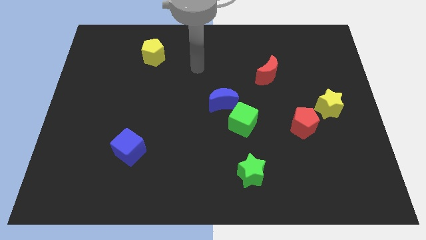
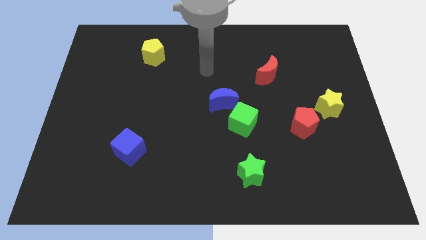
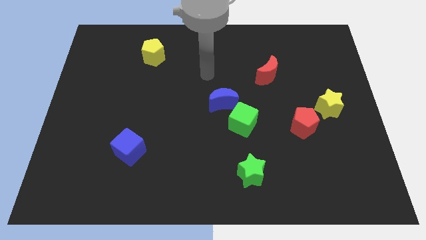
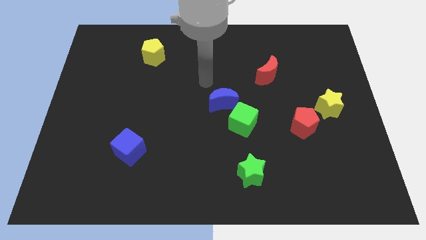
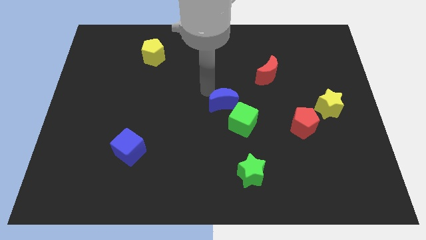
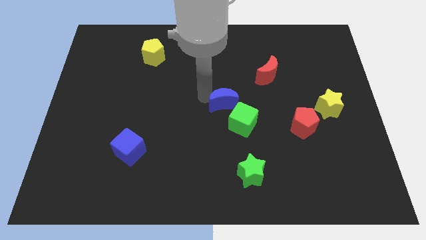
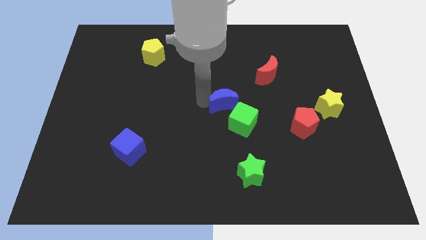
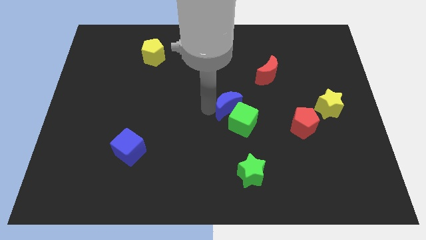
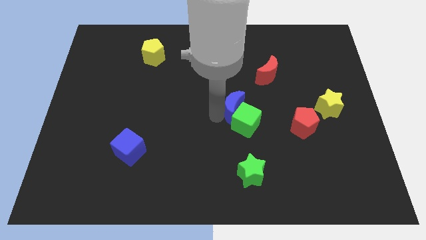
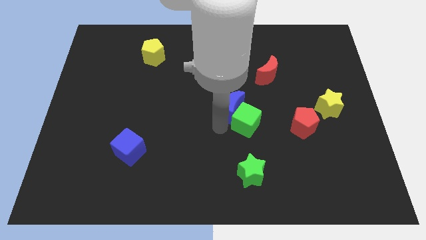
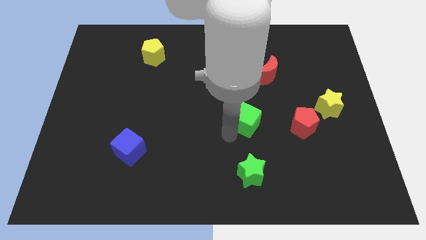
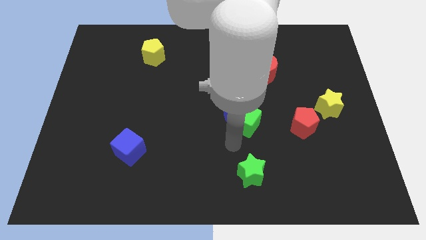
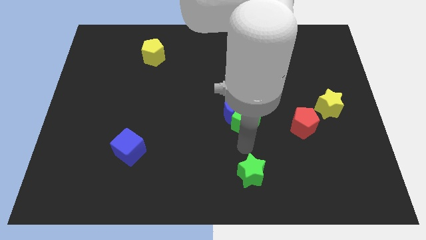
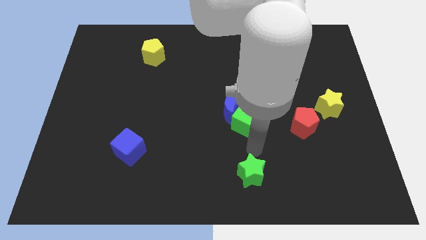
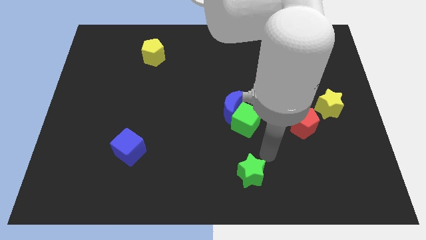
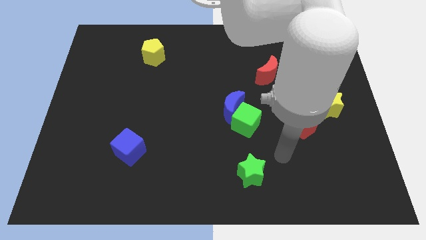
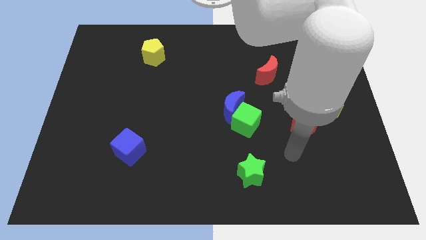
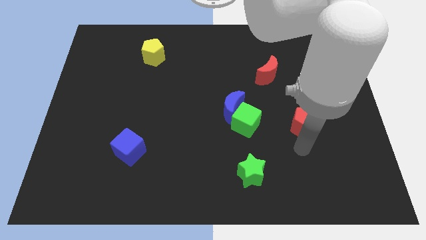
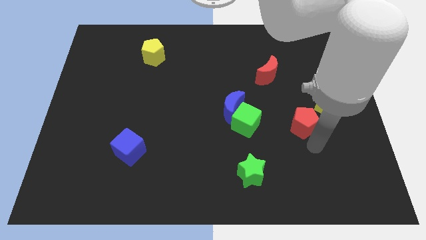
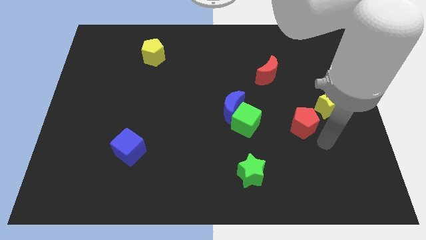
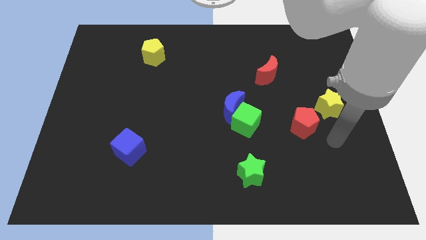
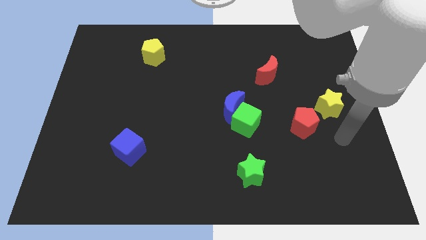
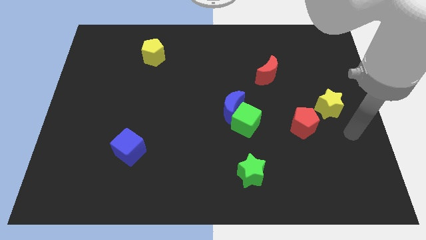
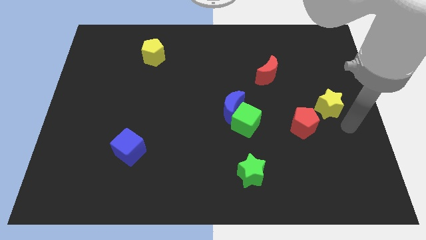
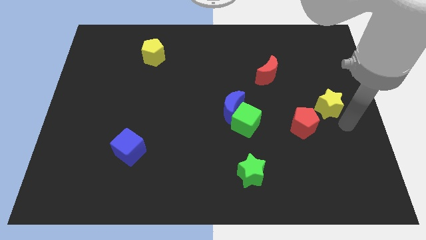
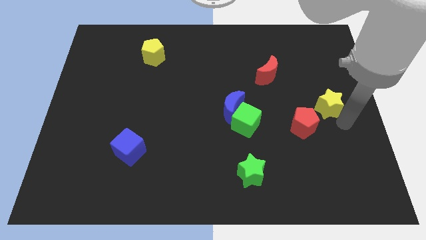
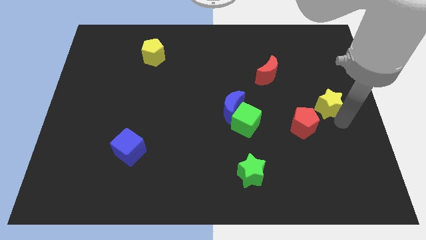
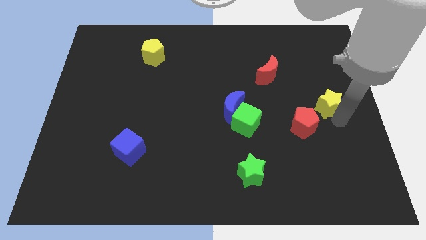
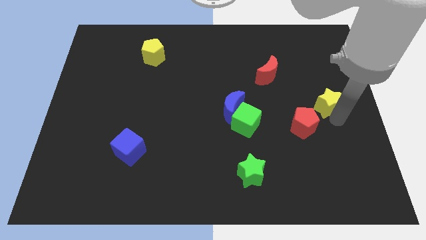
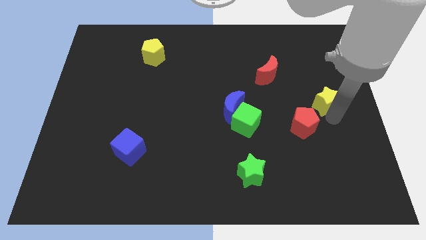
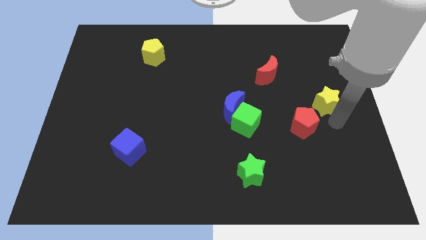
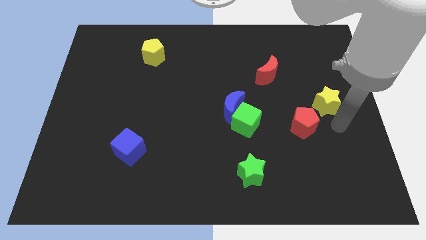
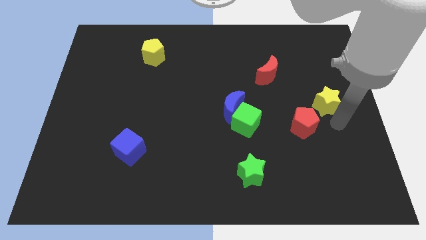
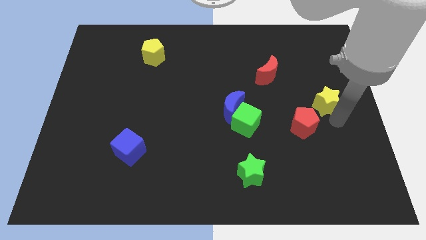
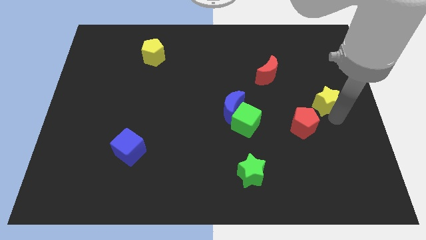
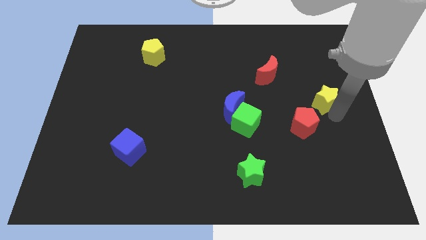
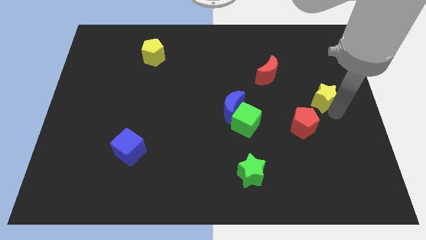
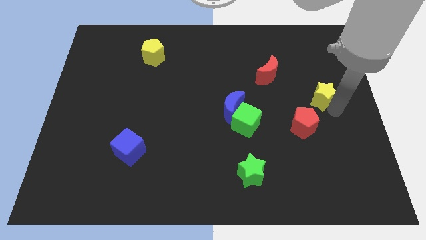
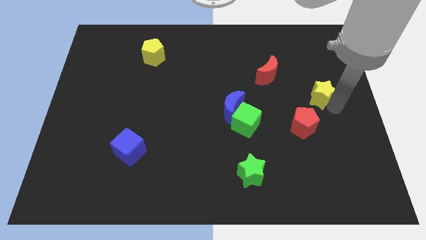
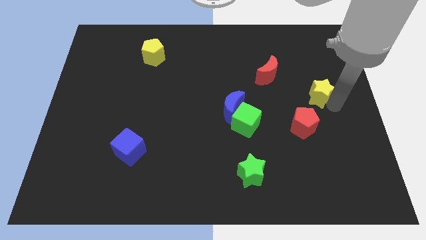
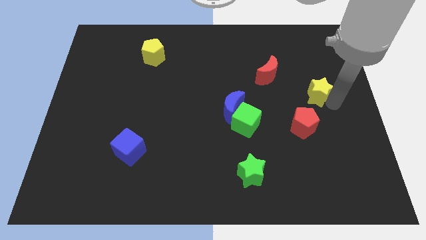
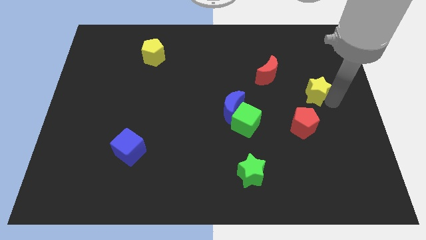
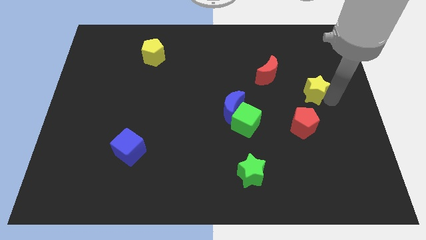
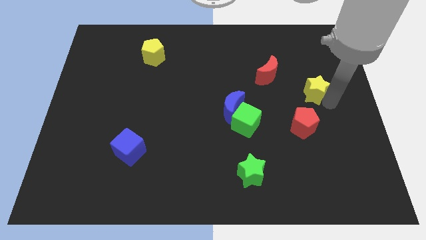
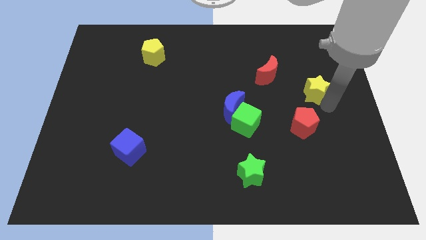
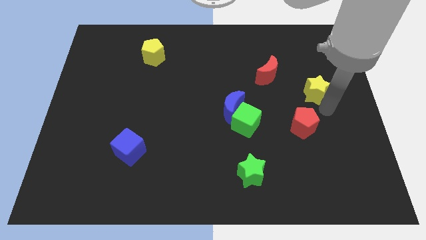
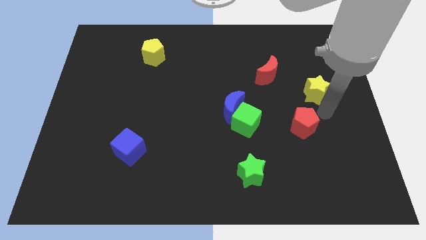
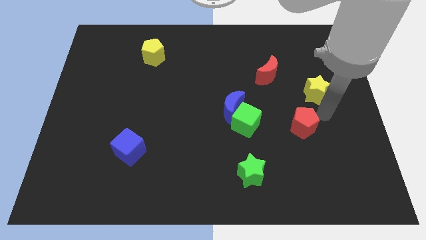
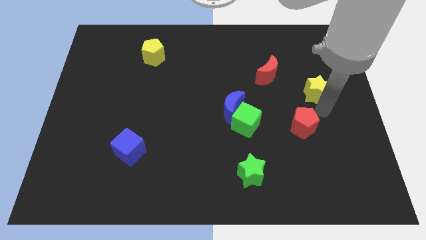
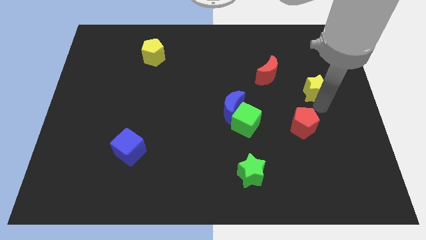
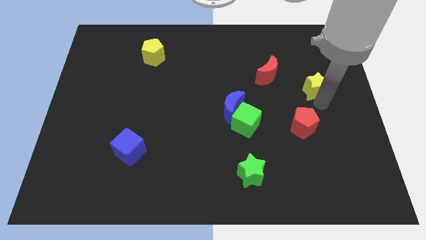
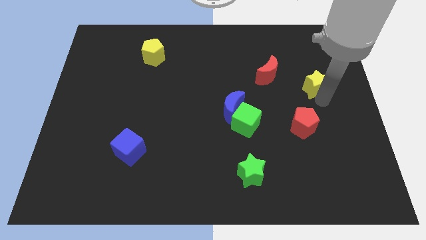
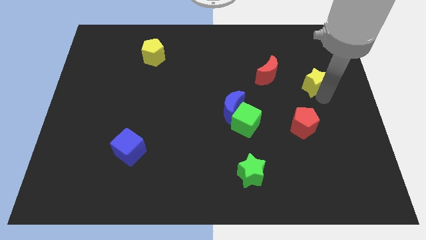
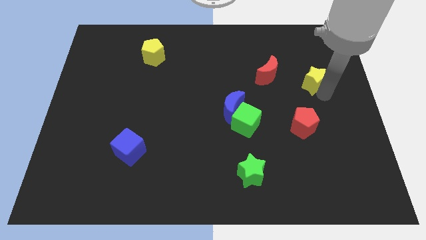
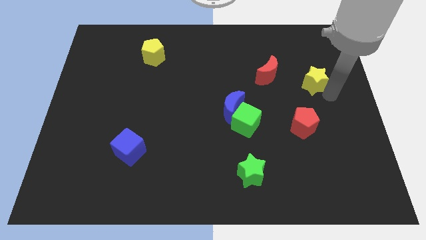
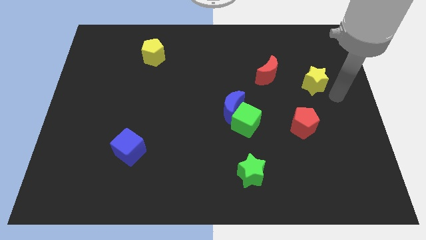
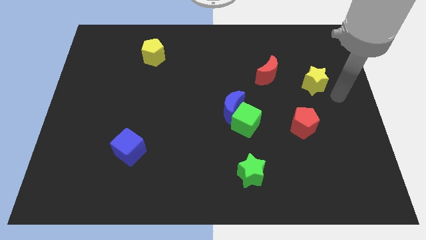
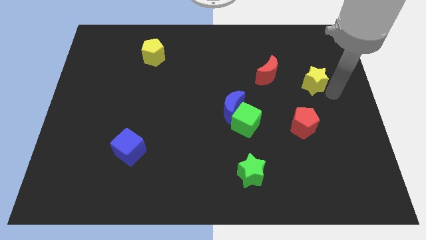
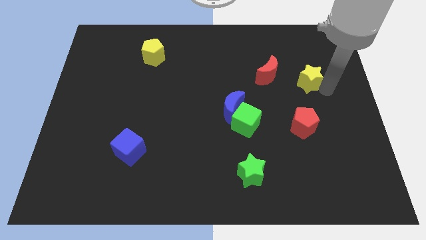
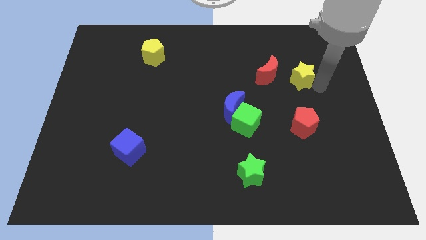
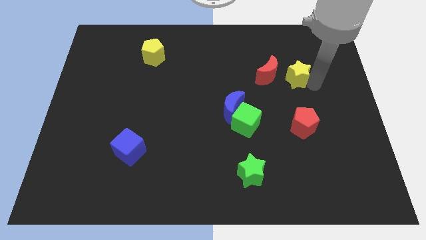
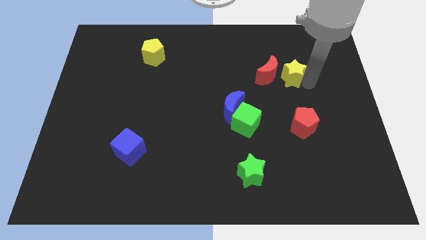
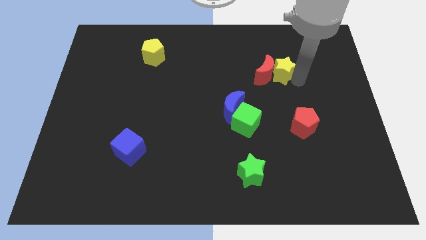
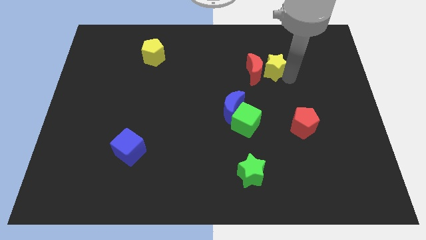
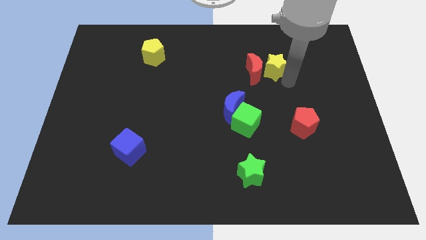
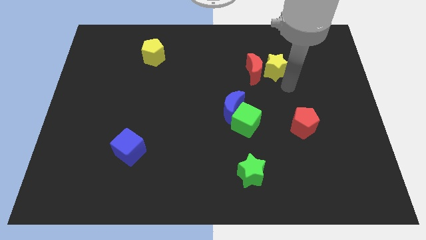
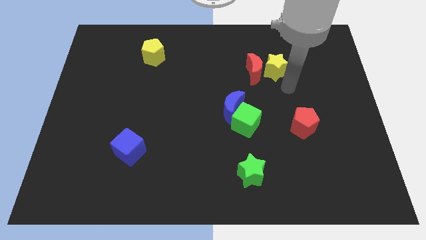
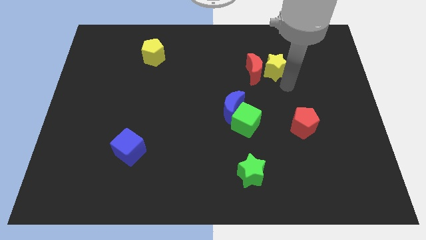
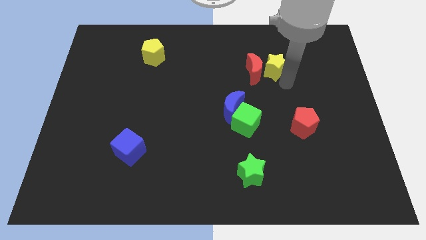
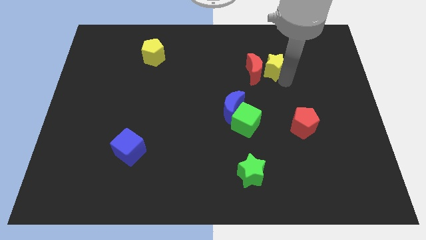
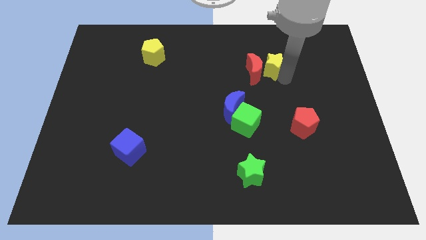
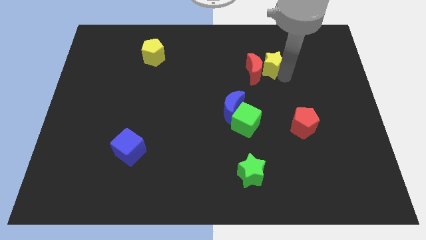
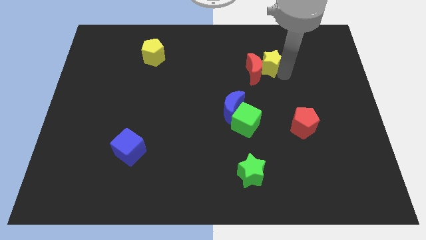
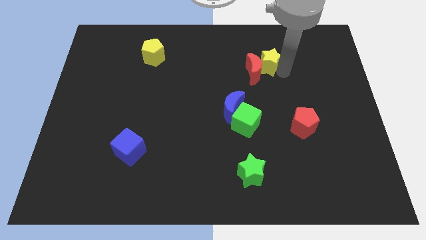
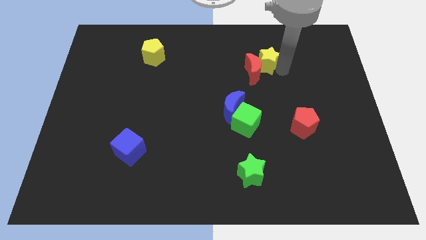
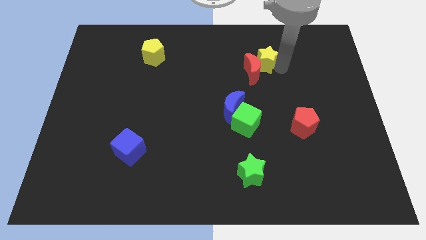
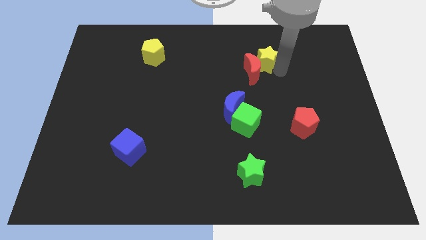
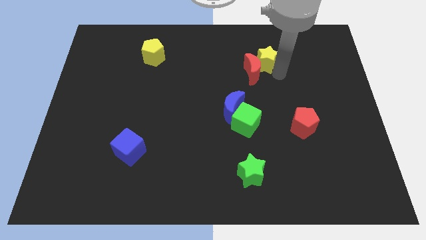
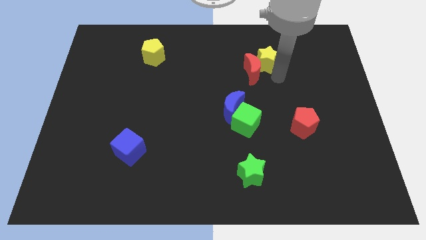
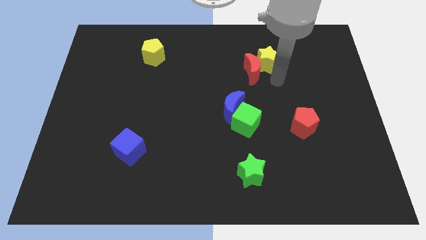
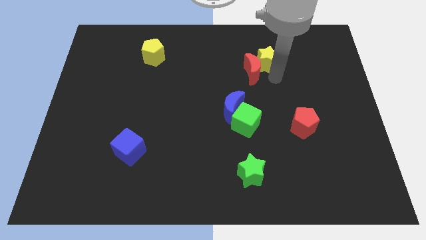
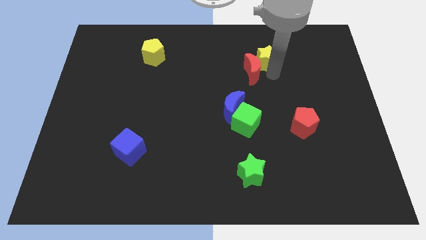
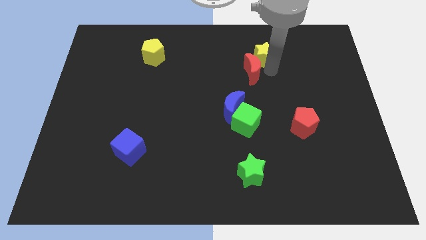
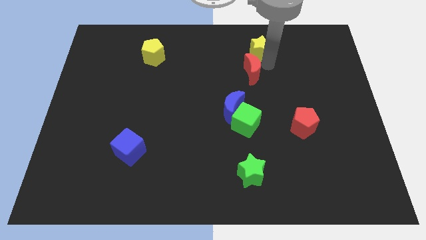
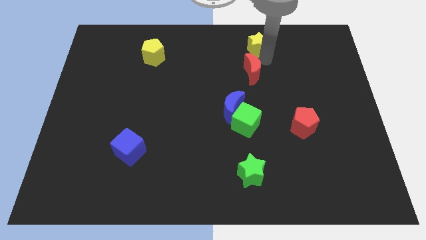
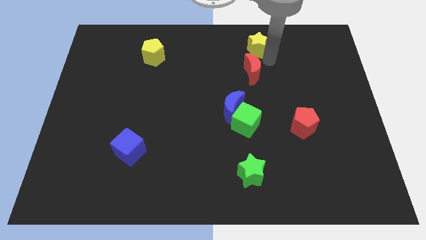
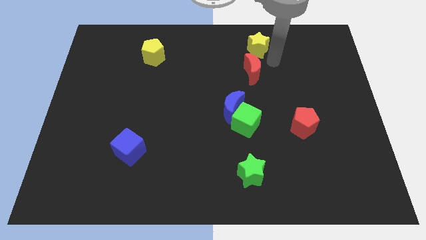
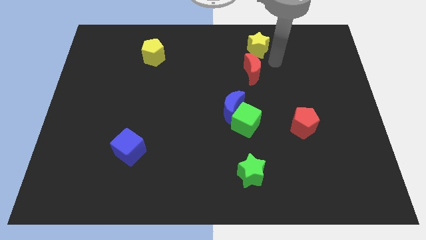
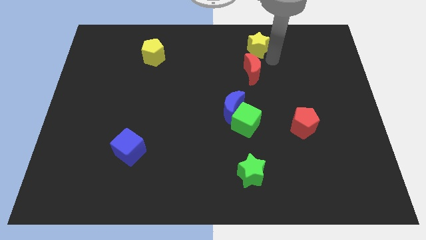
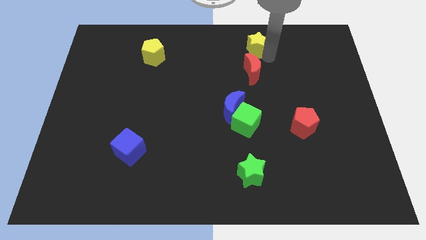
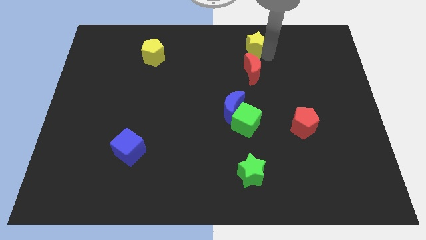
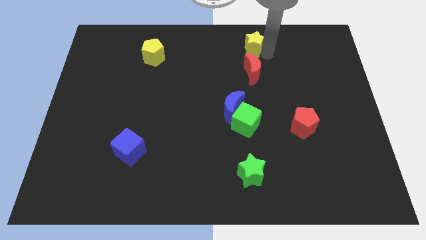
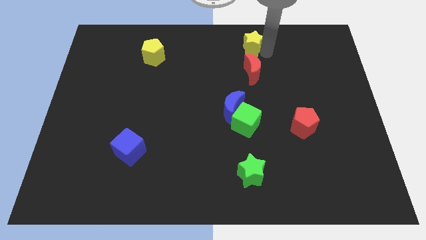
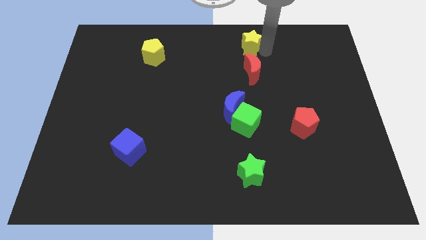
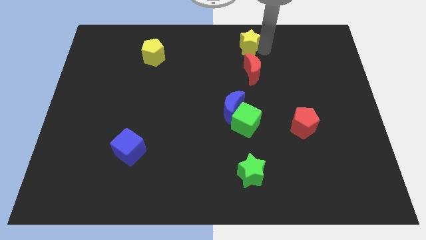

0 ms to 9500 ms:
put the yellow star to the top
